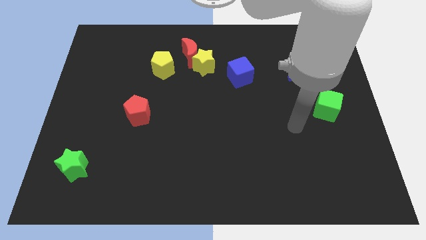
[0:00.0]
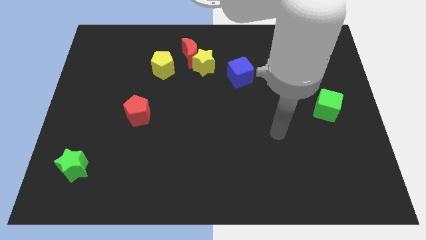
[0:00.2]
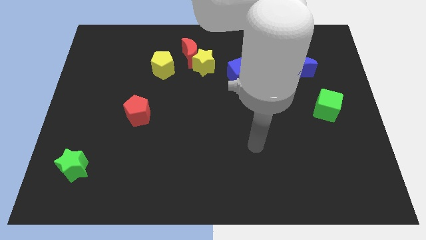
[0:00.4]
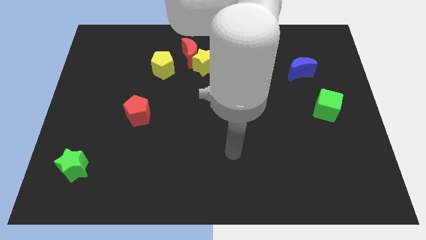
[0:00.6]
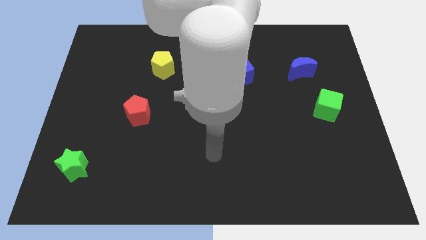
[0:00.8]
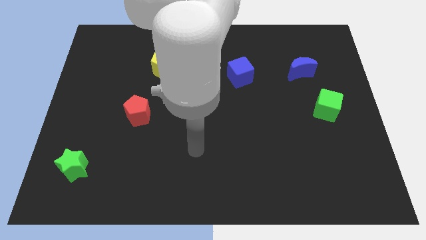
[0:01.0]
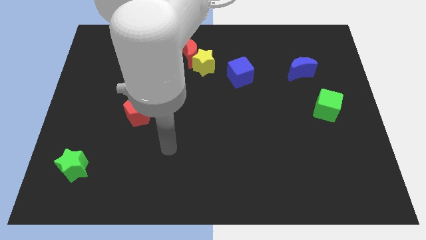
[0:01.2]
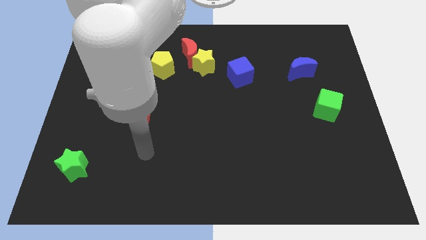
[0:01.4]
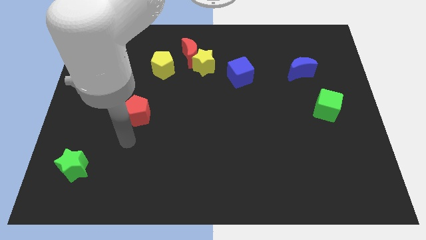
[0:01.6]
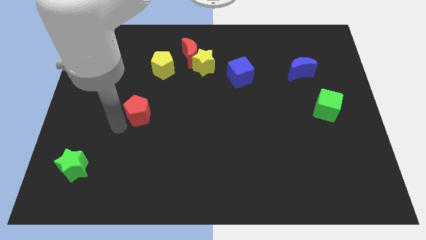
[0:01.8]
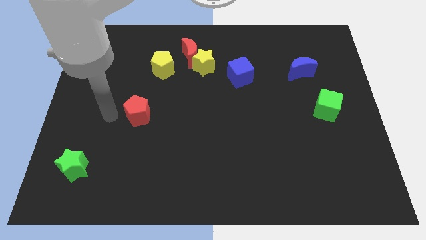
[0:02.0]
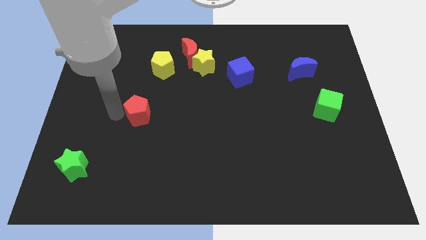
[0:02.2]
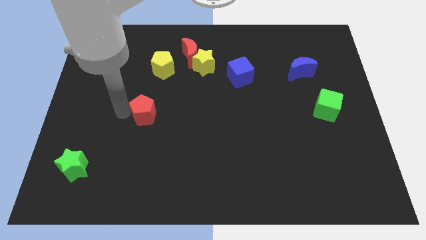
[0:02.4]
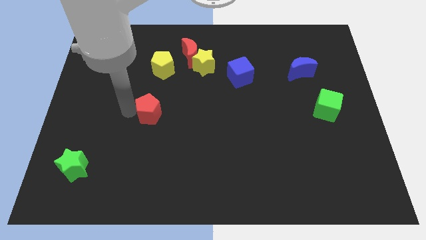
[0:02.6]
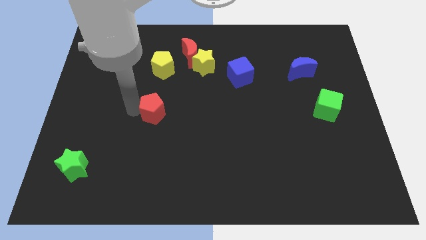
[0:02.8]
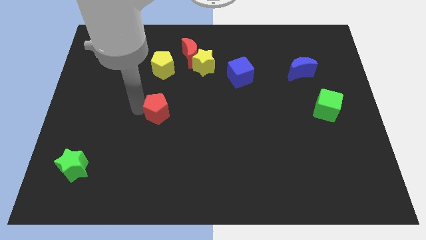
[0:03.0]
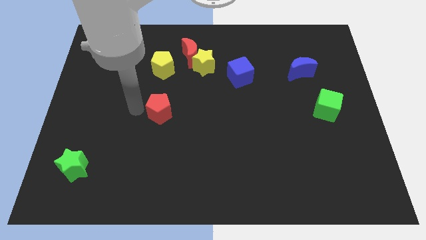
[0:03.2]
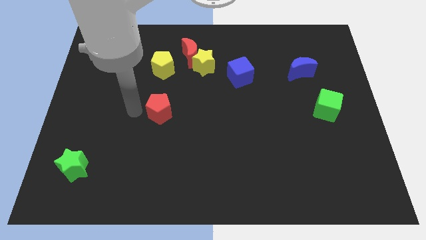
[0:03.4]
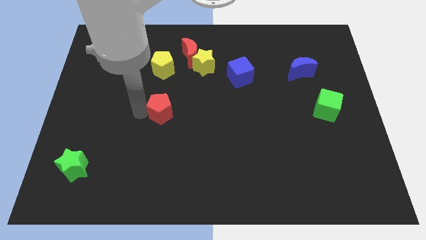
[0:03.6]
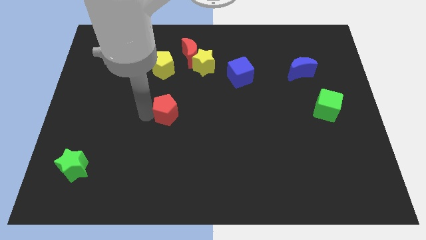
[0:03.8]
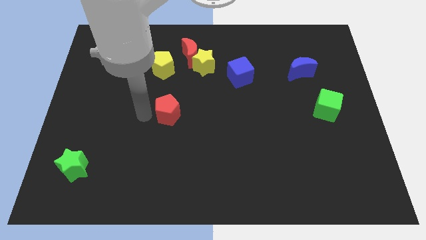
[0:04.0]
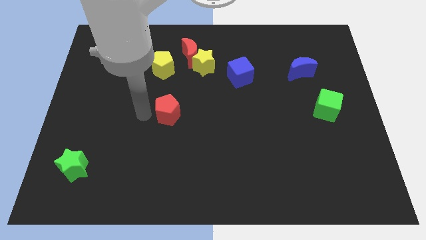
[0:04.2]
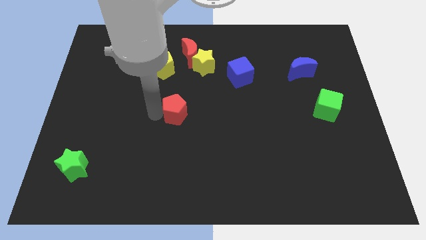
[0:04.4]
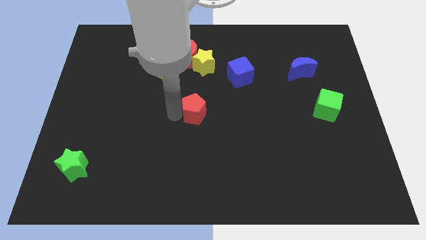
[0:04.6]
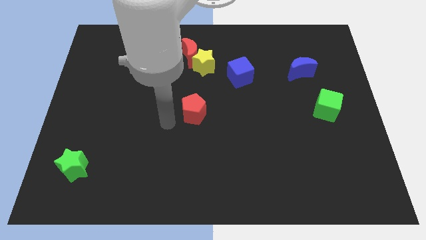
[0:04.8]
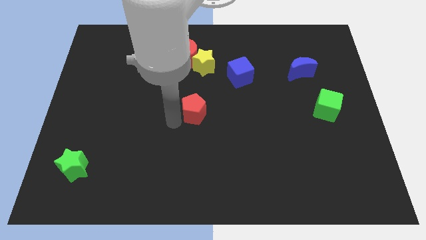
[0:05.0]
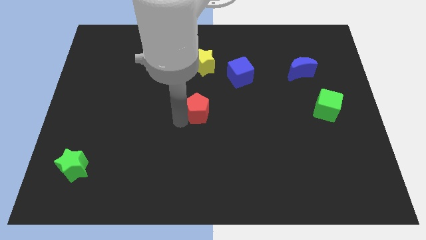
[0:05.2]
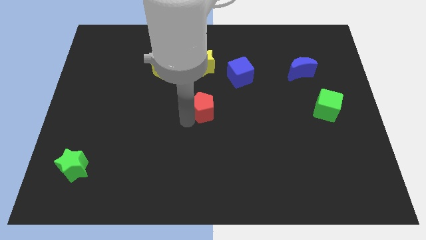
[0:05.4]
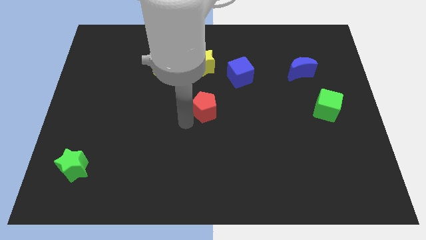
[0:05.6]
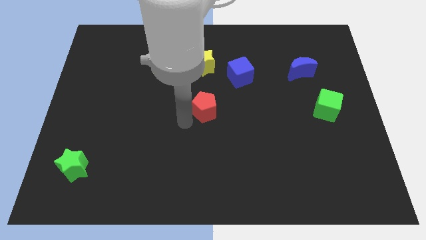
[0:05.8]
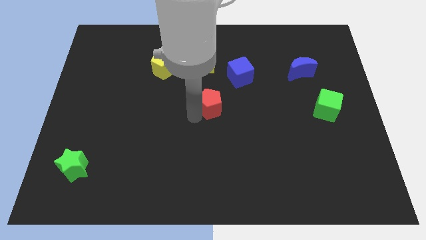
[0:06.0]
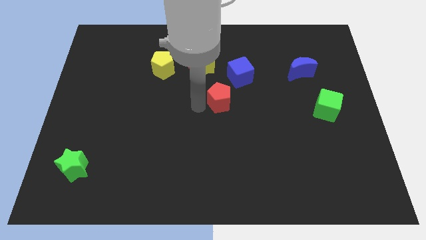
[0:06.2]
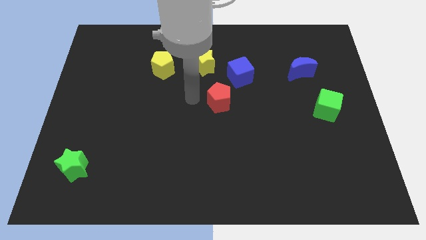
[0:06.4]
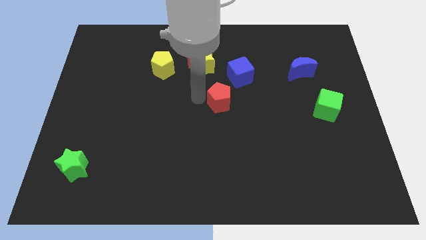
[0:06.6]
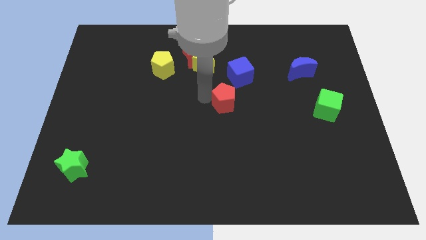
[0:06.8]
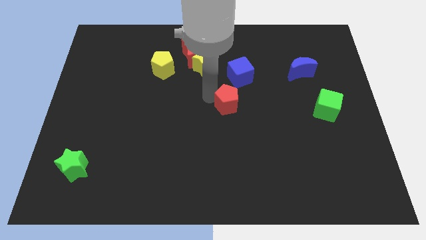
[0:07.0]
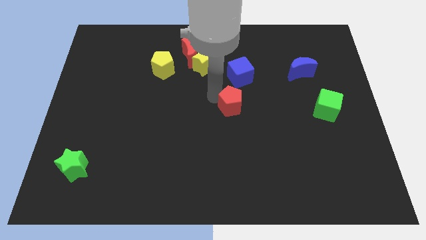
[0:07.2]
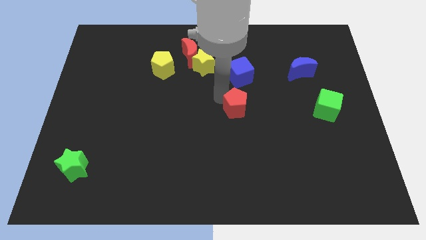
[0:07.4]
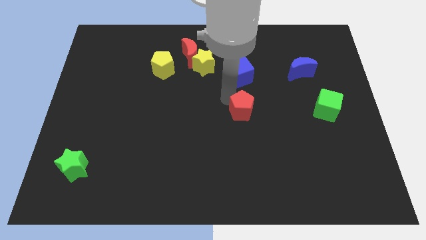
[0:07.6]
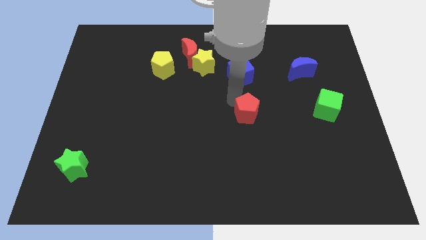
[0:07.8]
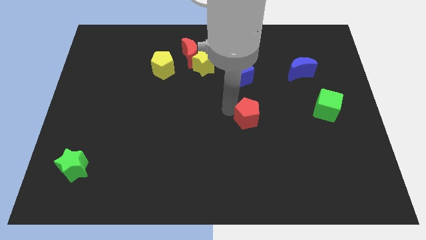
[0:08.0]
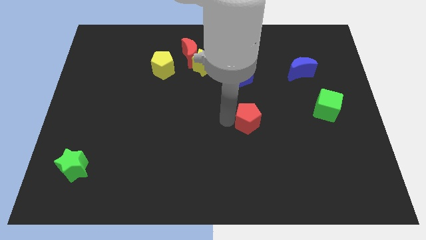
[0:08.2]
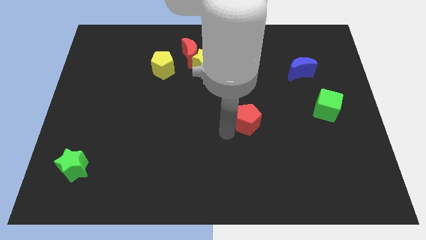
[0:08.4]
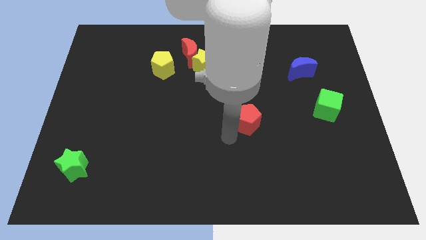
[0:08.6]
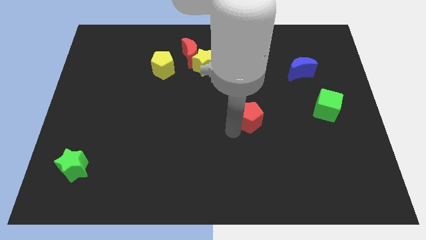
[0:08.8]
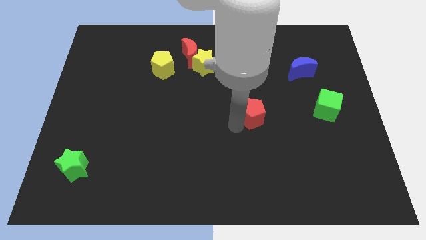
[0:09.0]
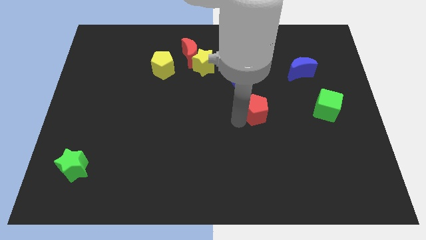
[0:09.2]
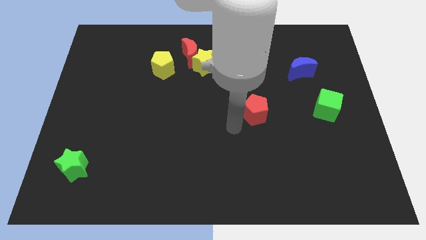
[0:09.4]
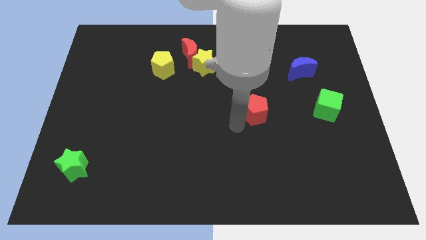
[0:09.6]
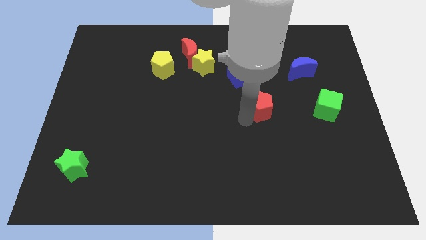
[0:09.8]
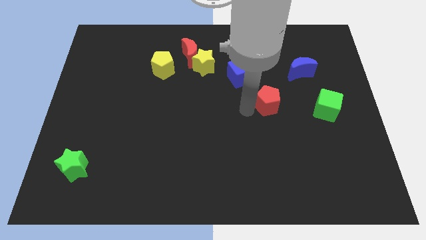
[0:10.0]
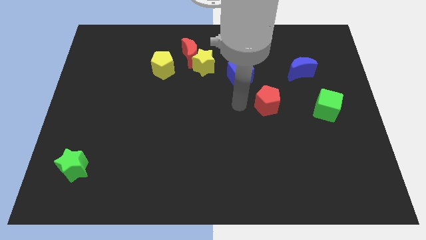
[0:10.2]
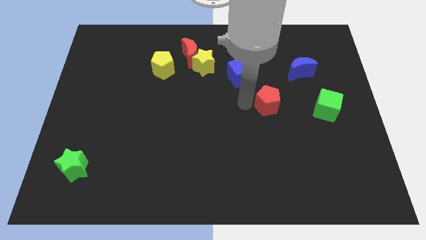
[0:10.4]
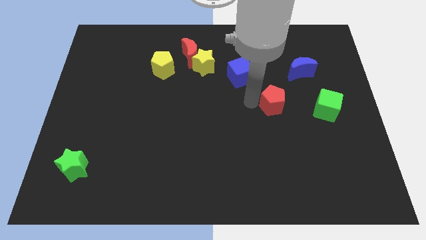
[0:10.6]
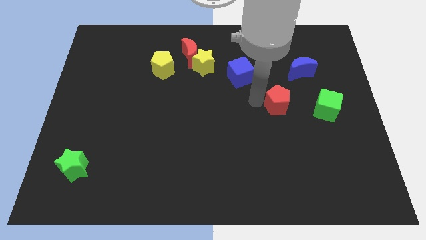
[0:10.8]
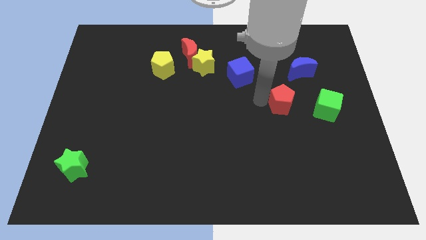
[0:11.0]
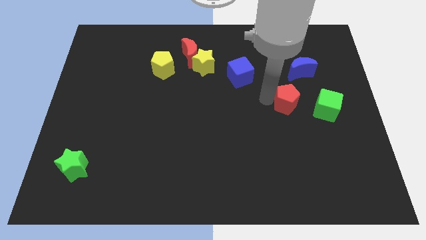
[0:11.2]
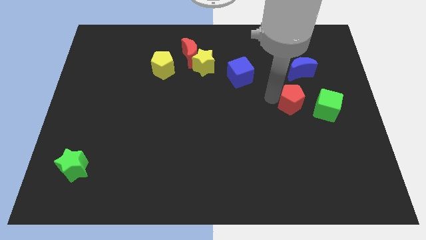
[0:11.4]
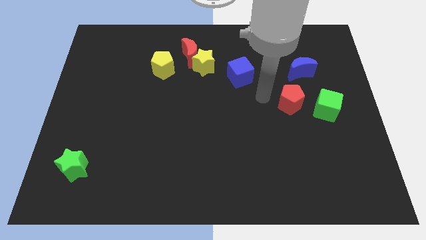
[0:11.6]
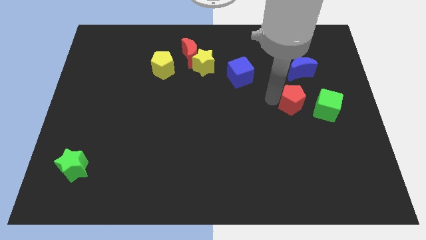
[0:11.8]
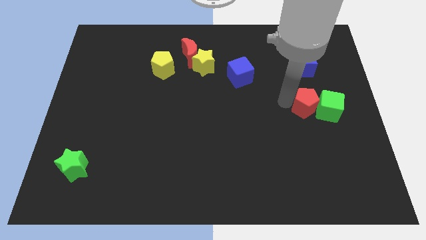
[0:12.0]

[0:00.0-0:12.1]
put the red pentagon towards the green cube

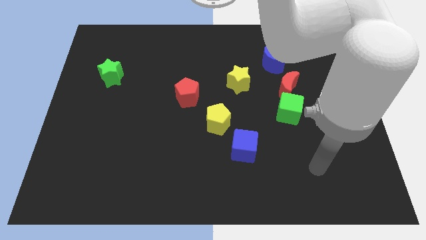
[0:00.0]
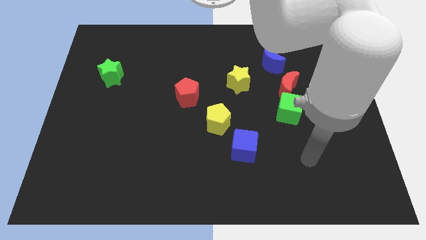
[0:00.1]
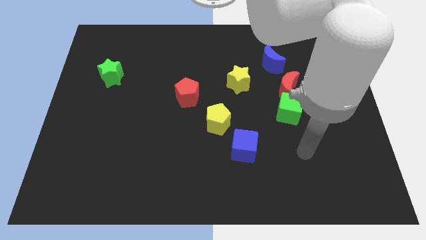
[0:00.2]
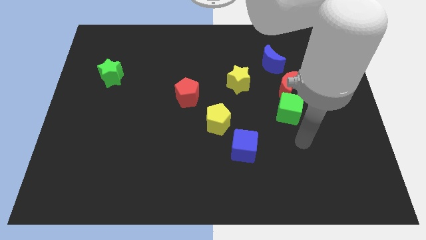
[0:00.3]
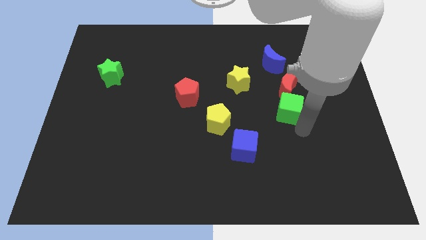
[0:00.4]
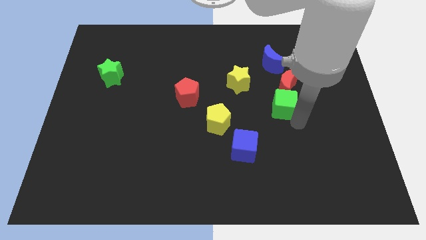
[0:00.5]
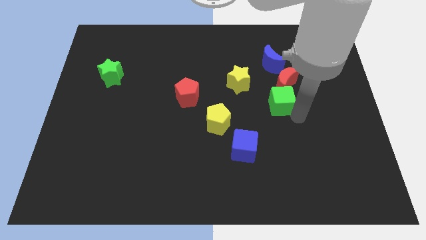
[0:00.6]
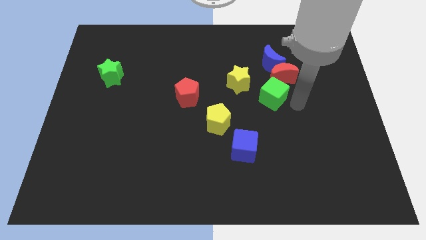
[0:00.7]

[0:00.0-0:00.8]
slide the red moon next to the blue moon
